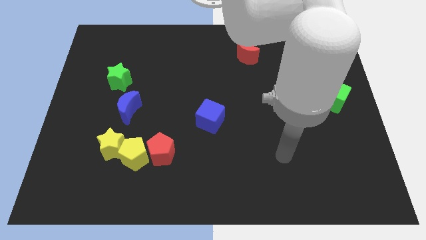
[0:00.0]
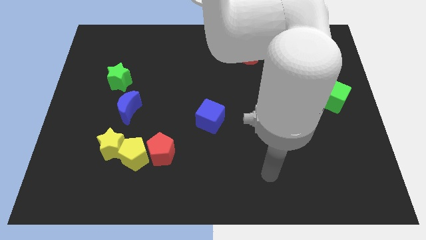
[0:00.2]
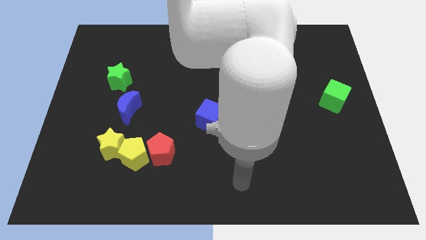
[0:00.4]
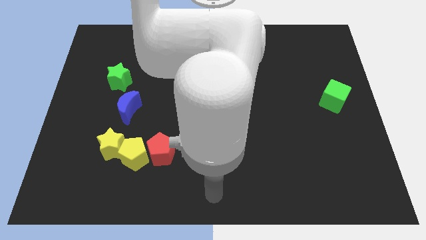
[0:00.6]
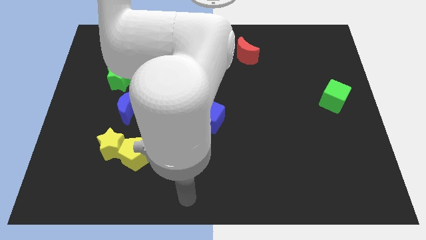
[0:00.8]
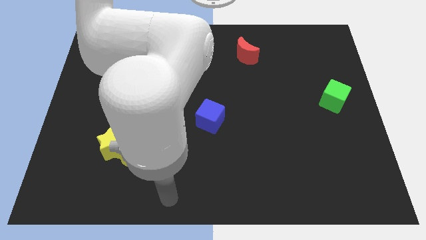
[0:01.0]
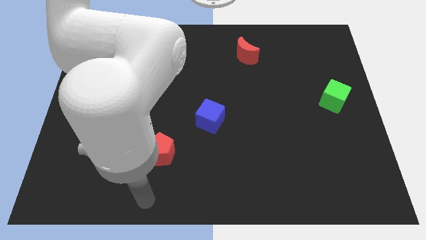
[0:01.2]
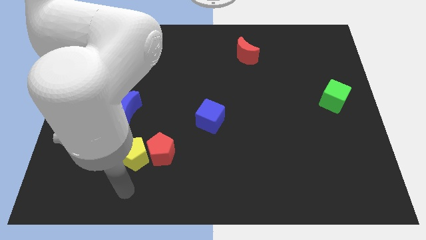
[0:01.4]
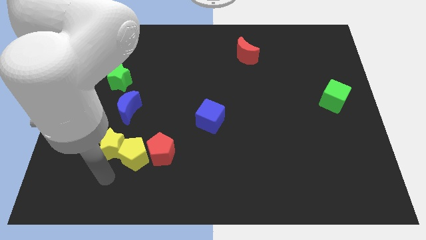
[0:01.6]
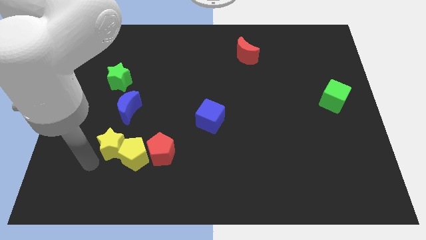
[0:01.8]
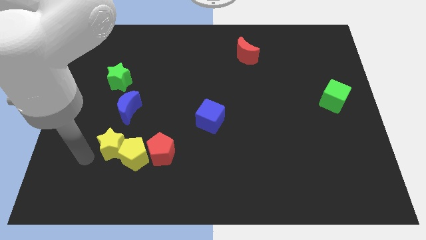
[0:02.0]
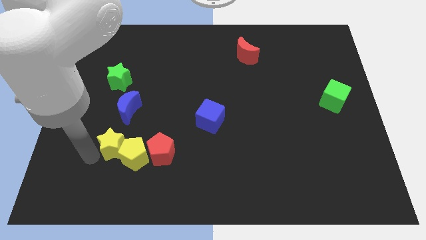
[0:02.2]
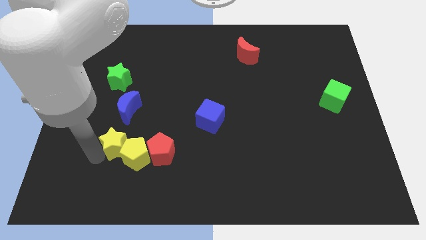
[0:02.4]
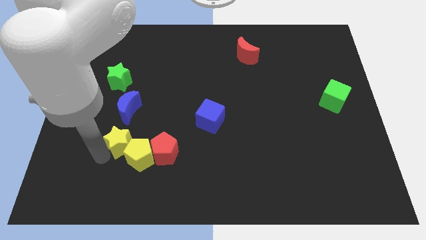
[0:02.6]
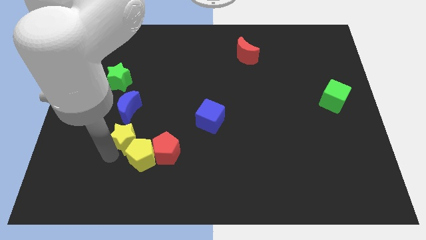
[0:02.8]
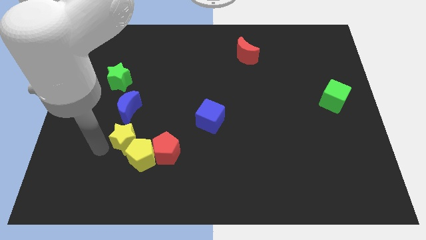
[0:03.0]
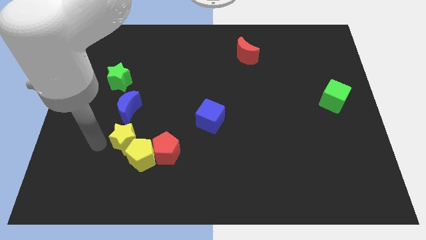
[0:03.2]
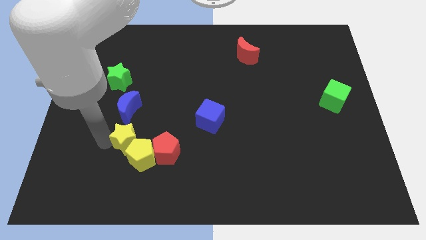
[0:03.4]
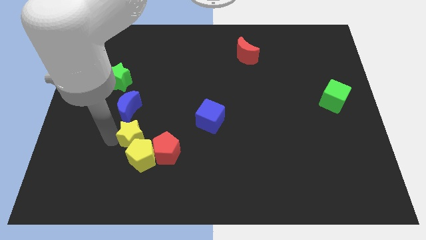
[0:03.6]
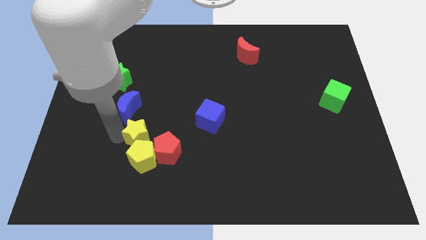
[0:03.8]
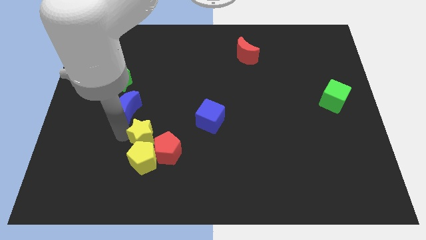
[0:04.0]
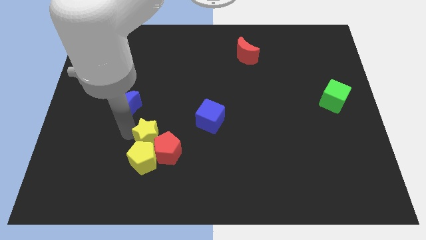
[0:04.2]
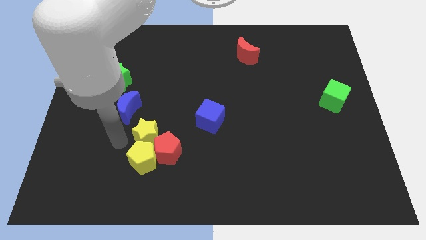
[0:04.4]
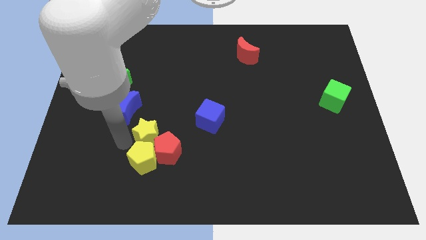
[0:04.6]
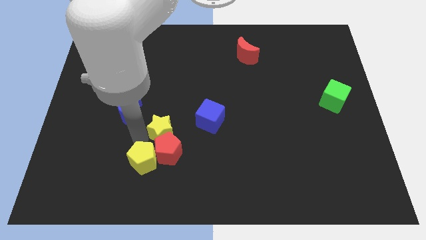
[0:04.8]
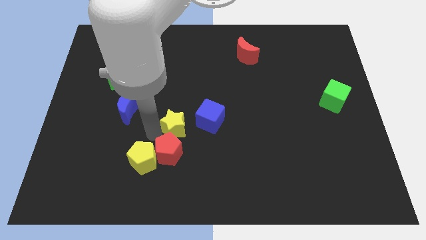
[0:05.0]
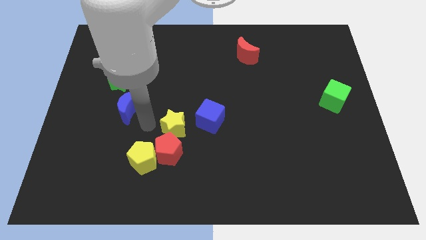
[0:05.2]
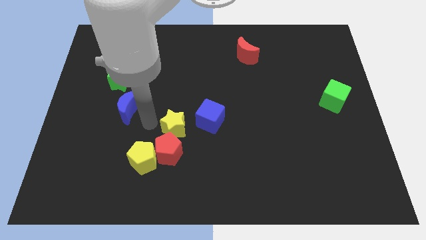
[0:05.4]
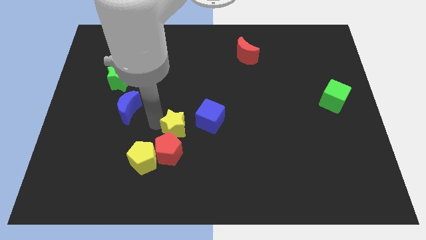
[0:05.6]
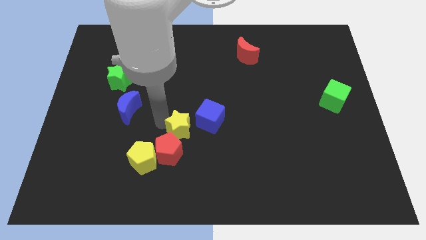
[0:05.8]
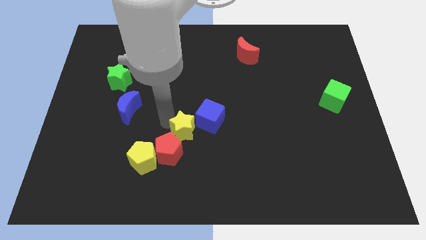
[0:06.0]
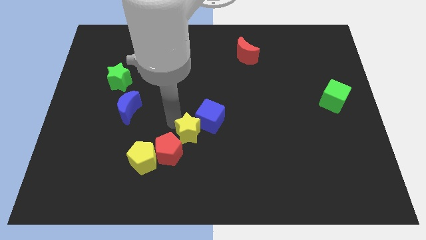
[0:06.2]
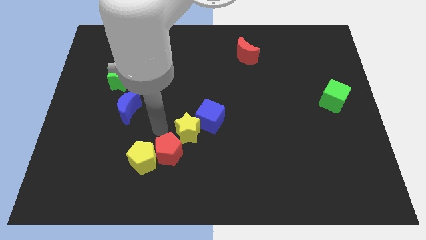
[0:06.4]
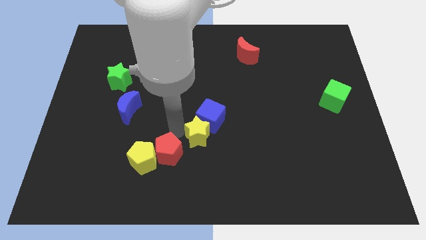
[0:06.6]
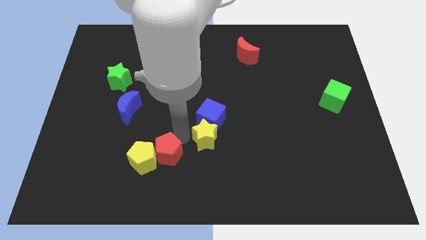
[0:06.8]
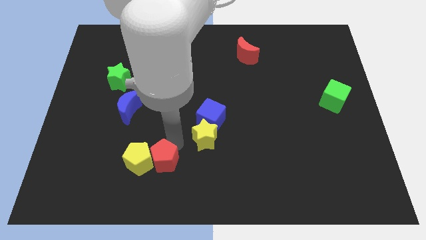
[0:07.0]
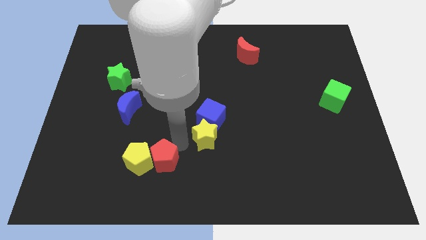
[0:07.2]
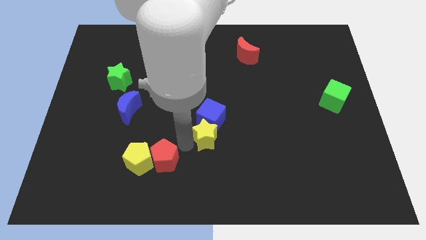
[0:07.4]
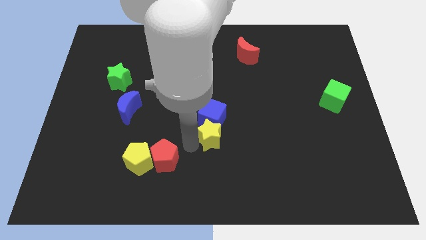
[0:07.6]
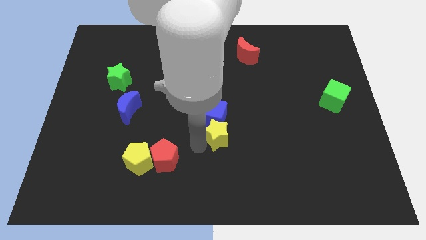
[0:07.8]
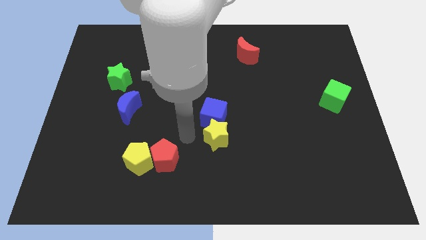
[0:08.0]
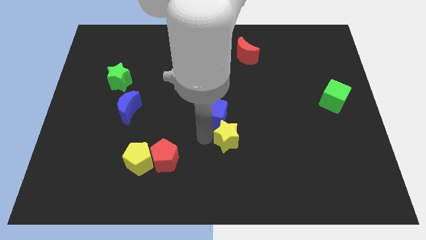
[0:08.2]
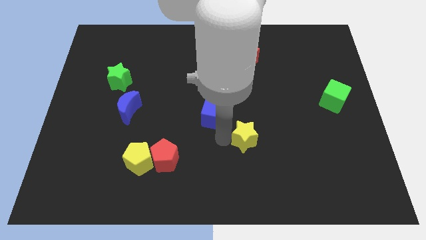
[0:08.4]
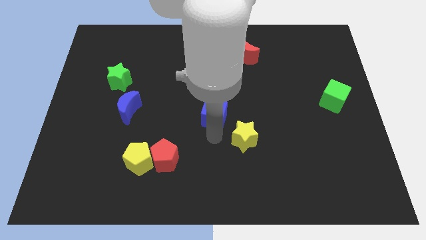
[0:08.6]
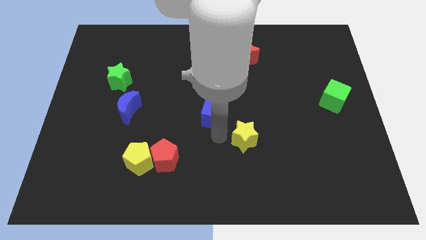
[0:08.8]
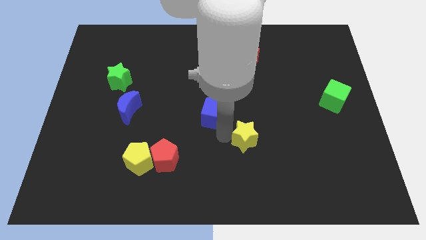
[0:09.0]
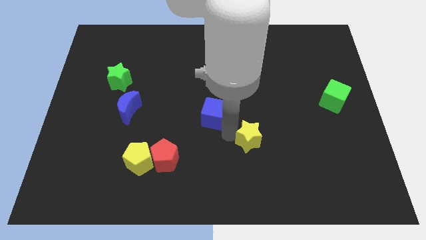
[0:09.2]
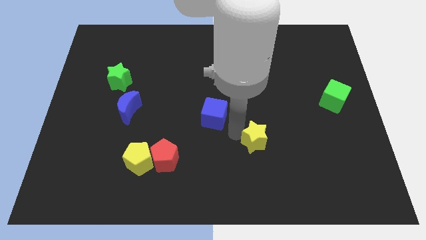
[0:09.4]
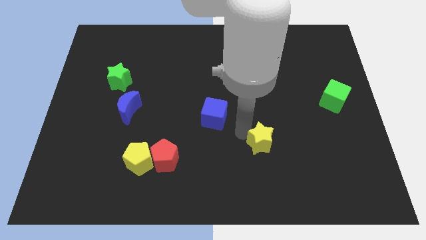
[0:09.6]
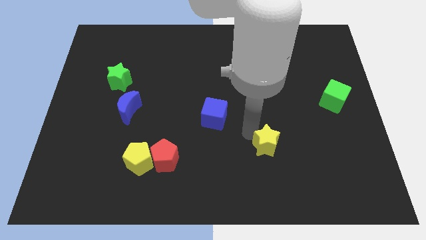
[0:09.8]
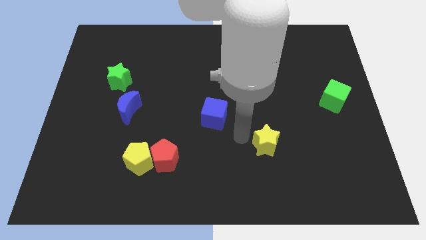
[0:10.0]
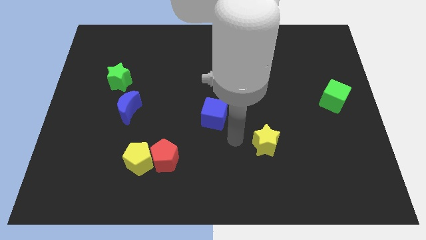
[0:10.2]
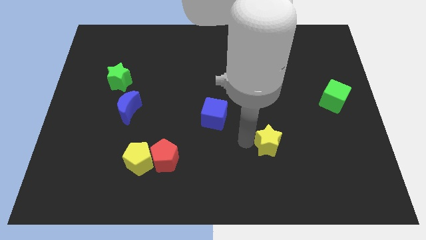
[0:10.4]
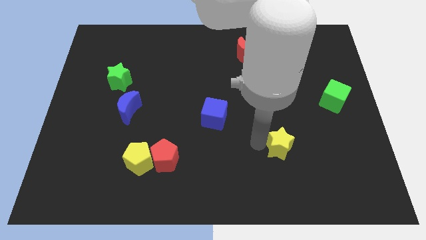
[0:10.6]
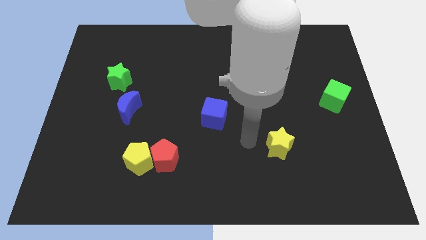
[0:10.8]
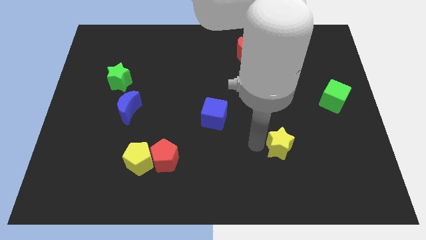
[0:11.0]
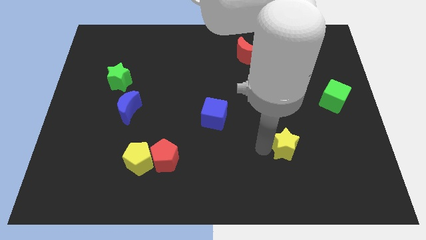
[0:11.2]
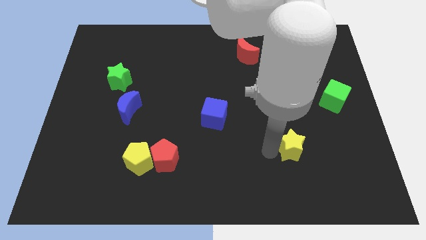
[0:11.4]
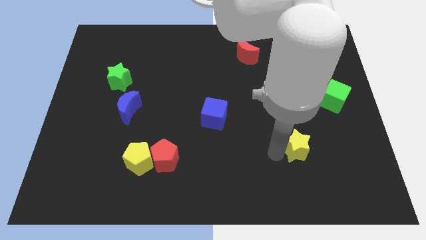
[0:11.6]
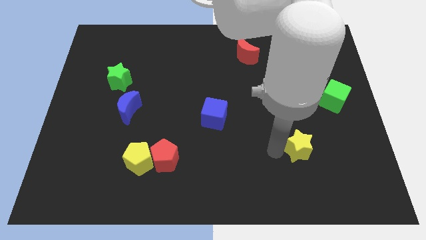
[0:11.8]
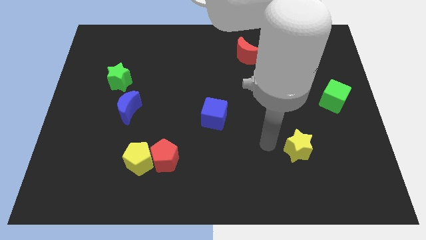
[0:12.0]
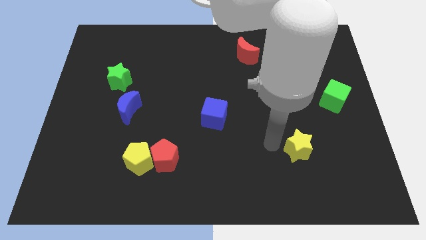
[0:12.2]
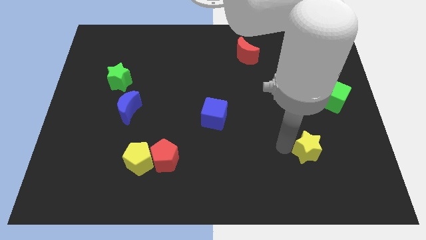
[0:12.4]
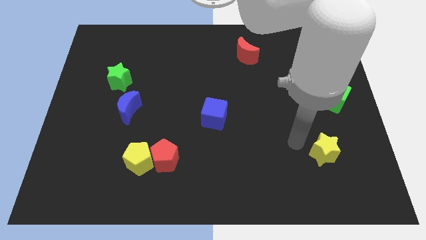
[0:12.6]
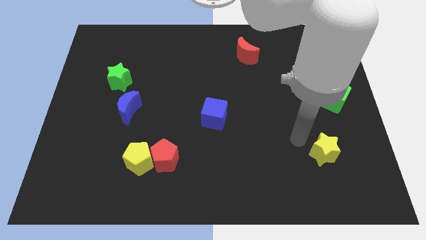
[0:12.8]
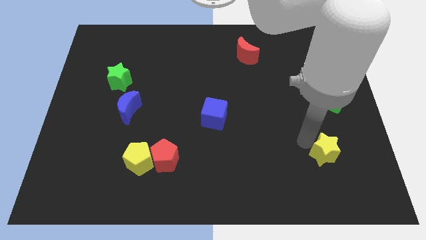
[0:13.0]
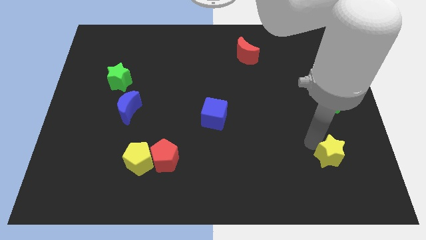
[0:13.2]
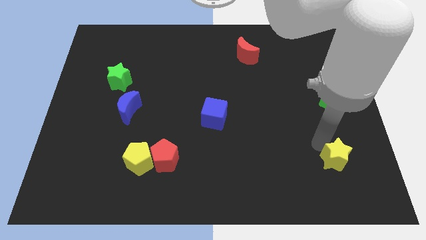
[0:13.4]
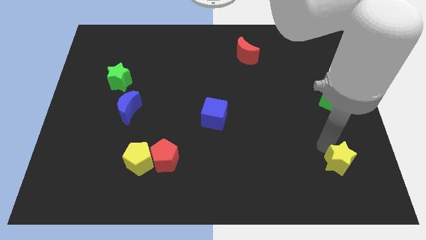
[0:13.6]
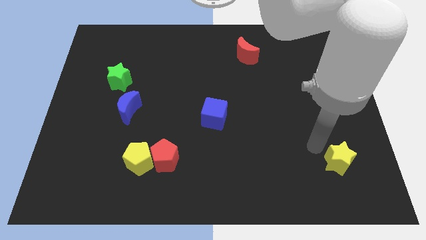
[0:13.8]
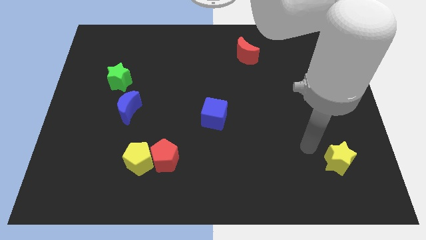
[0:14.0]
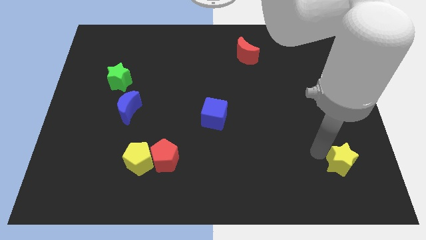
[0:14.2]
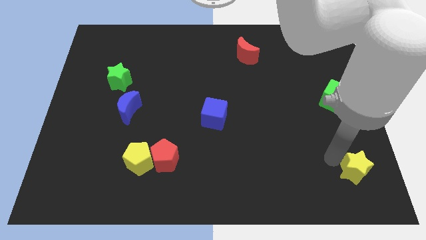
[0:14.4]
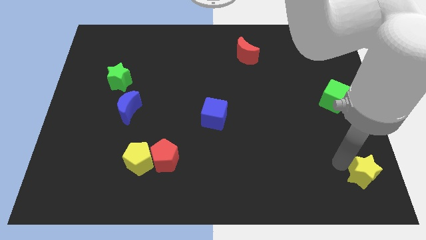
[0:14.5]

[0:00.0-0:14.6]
slide the yellow star to the bottom right of the board
